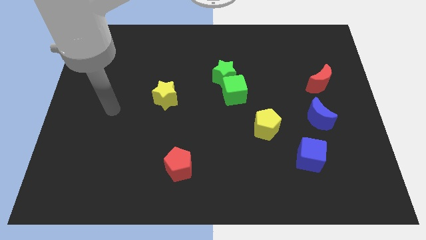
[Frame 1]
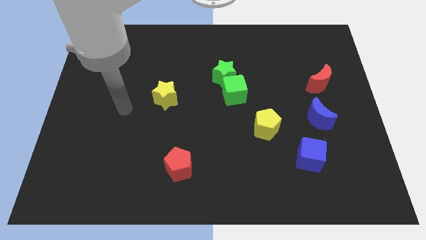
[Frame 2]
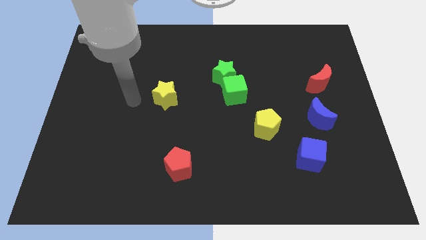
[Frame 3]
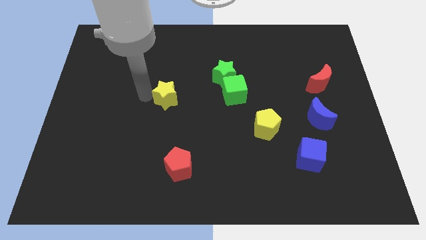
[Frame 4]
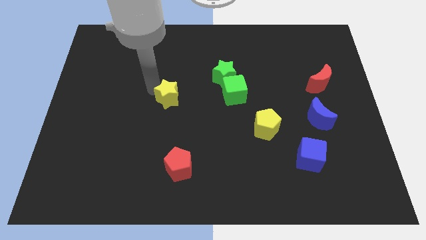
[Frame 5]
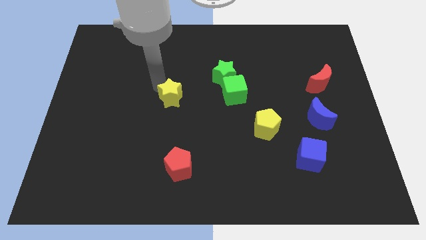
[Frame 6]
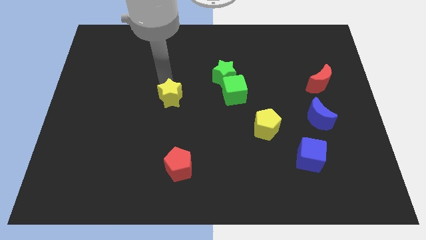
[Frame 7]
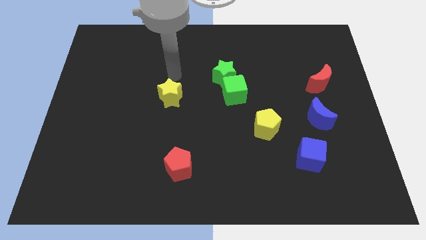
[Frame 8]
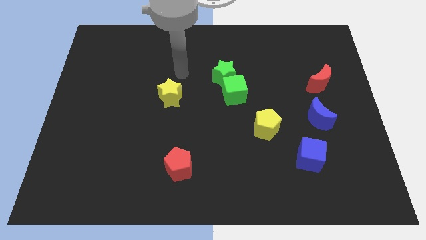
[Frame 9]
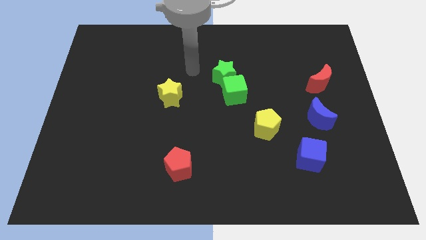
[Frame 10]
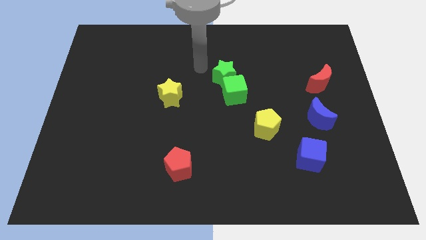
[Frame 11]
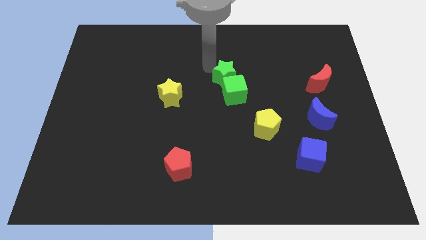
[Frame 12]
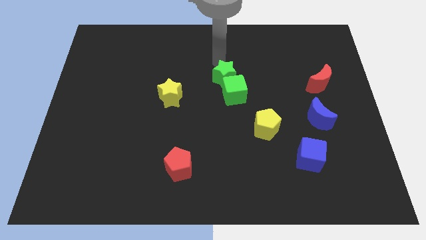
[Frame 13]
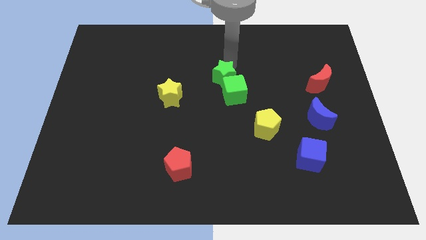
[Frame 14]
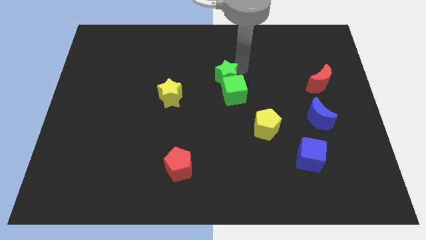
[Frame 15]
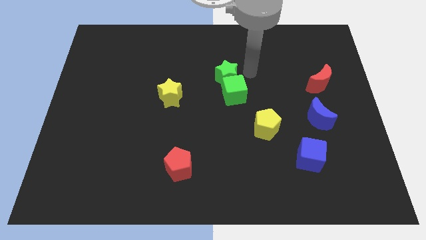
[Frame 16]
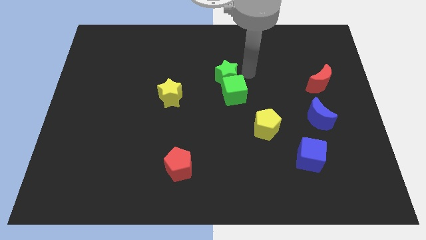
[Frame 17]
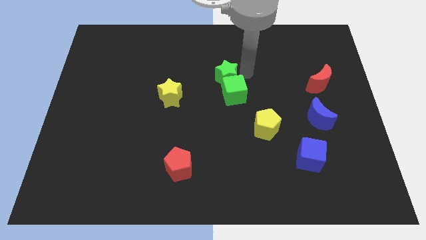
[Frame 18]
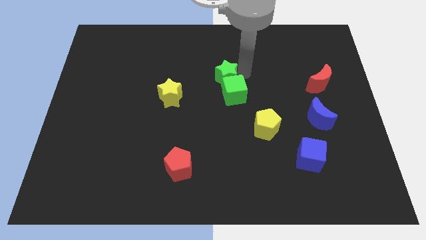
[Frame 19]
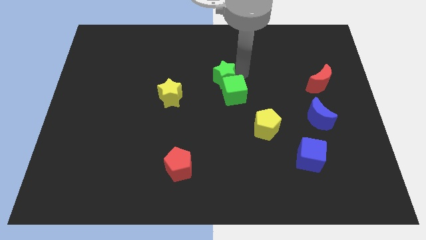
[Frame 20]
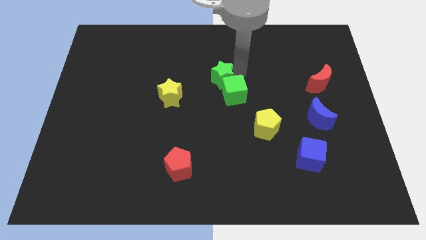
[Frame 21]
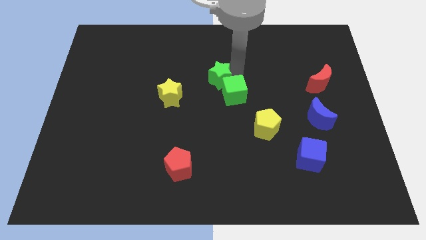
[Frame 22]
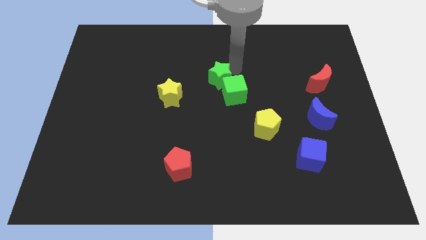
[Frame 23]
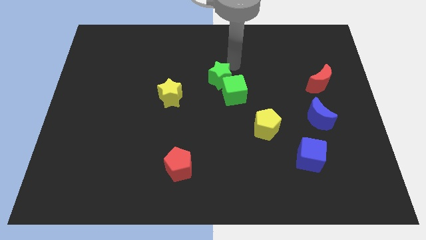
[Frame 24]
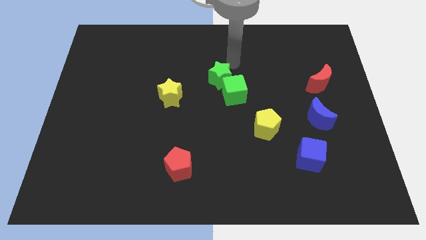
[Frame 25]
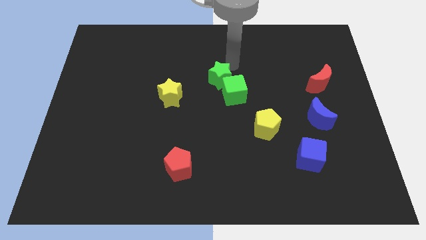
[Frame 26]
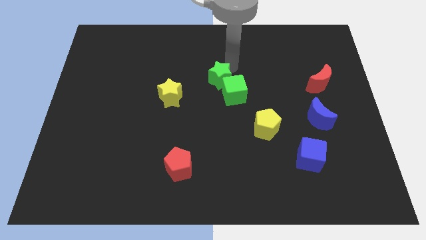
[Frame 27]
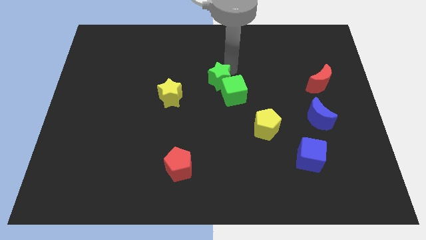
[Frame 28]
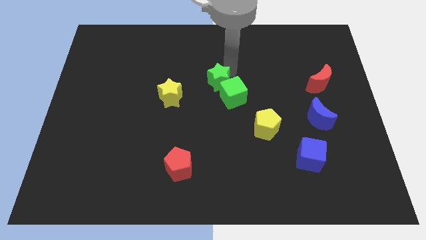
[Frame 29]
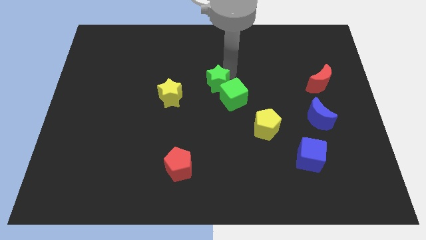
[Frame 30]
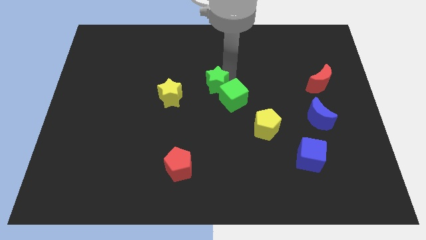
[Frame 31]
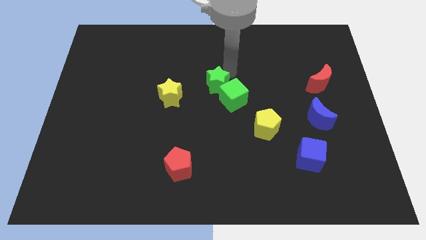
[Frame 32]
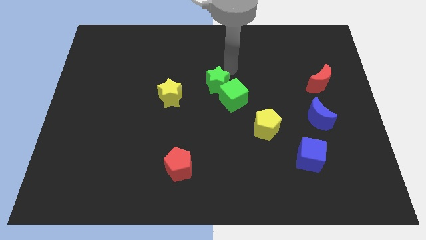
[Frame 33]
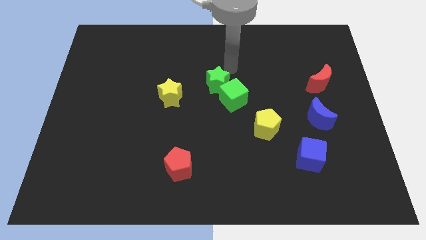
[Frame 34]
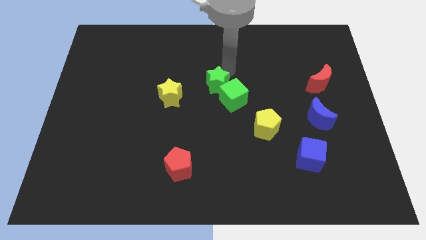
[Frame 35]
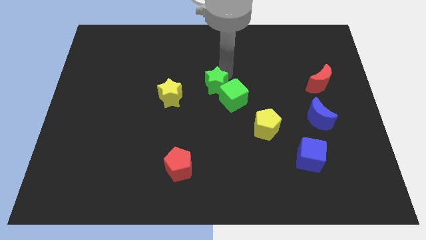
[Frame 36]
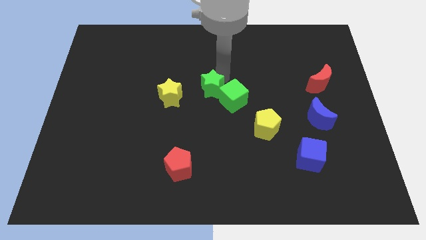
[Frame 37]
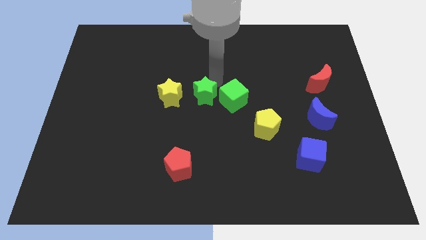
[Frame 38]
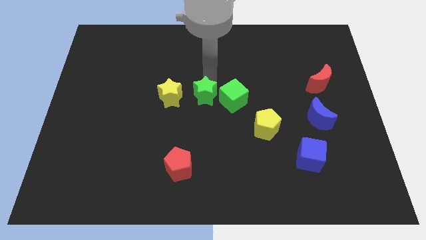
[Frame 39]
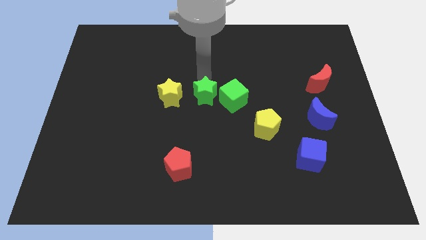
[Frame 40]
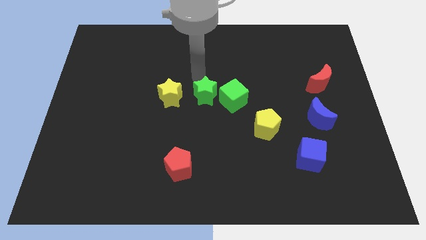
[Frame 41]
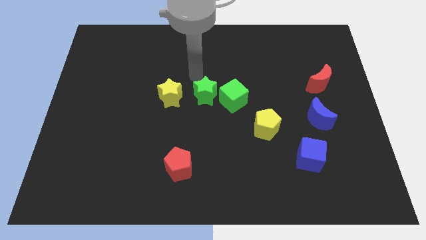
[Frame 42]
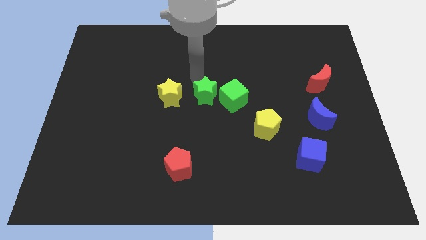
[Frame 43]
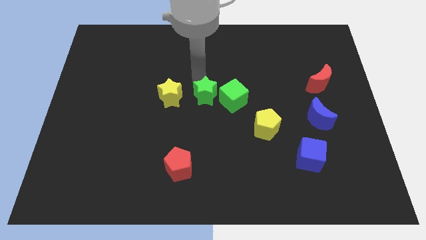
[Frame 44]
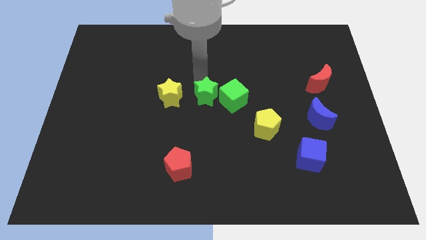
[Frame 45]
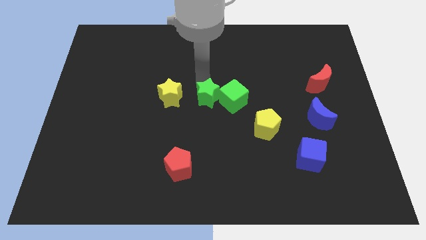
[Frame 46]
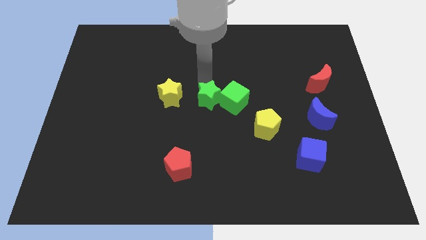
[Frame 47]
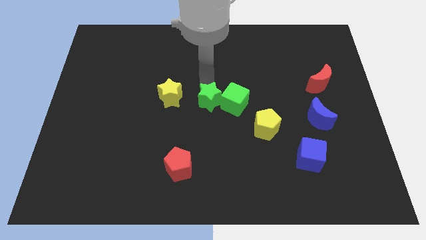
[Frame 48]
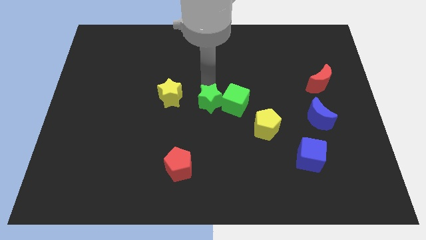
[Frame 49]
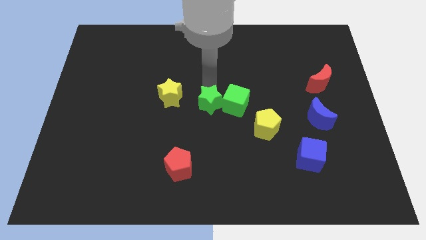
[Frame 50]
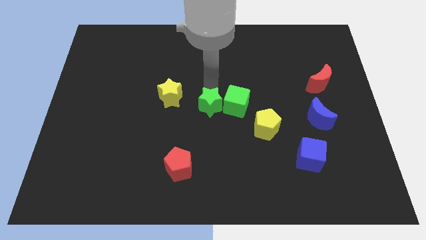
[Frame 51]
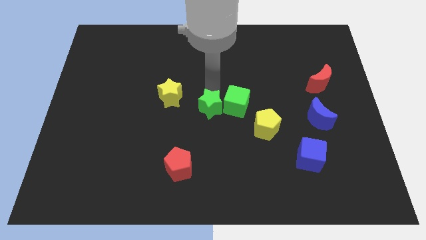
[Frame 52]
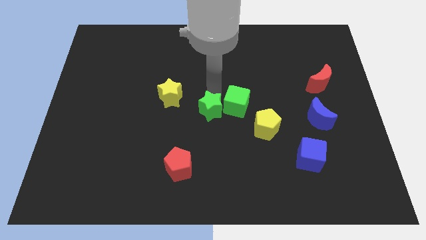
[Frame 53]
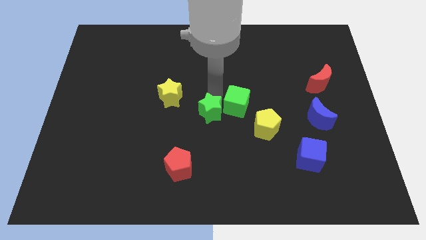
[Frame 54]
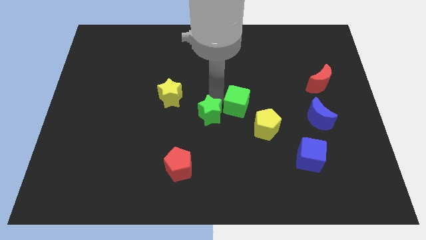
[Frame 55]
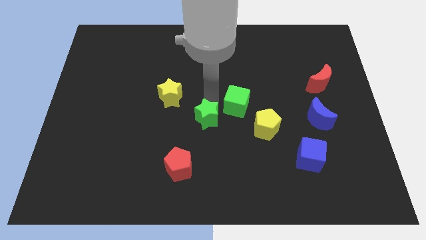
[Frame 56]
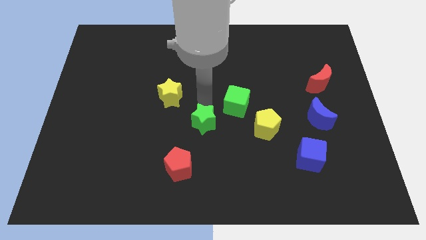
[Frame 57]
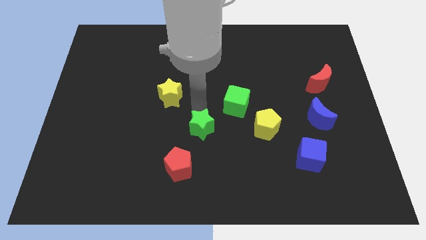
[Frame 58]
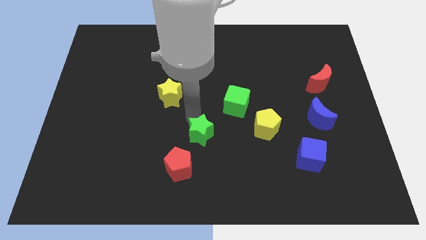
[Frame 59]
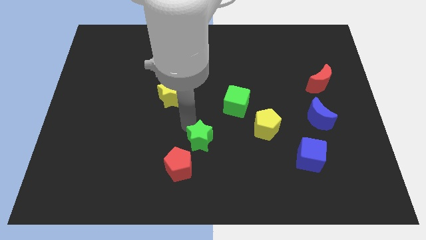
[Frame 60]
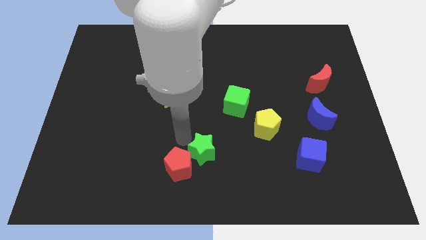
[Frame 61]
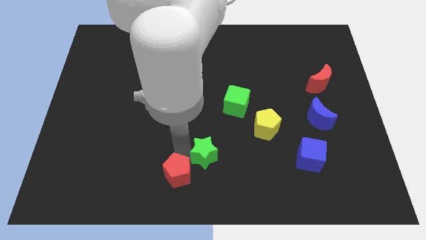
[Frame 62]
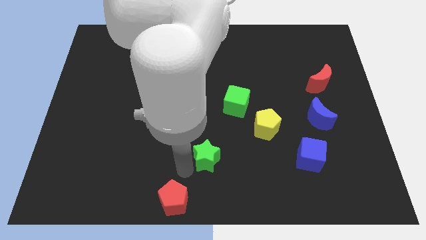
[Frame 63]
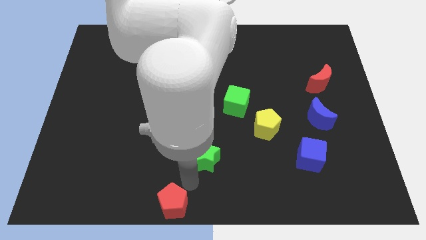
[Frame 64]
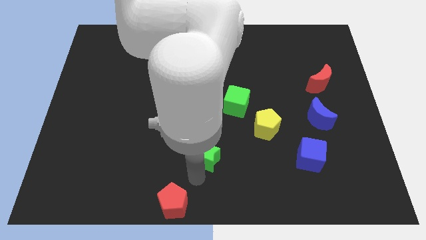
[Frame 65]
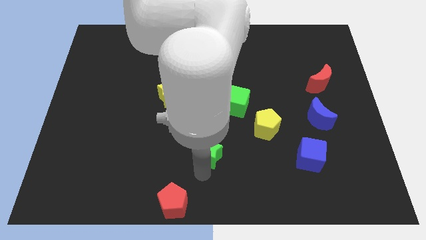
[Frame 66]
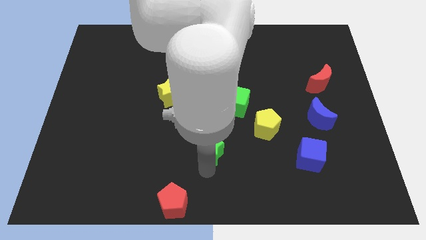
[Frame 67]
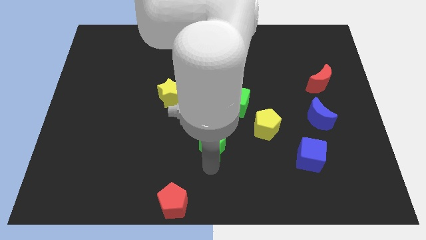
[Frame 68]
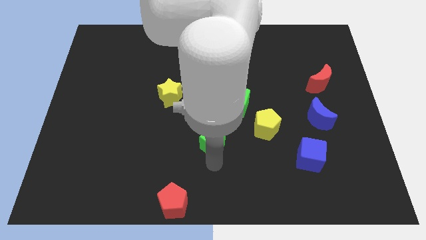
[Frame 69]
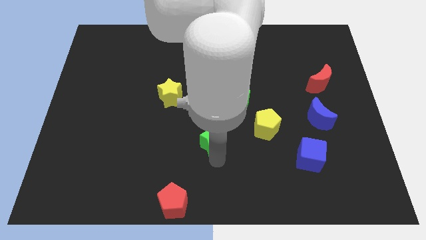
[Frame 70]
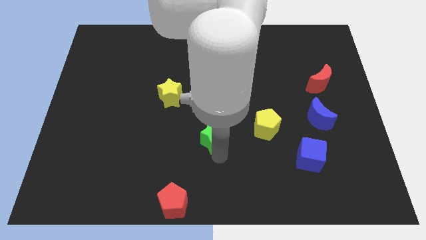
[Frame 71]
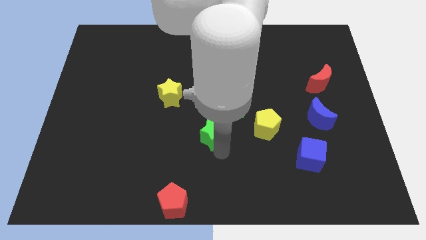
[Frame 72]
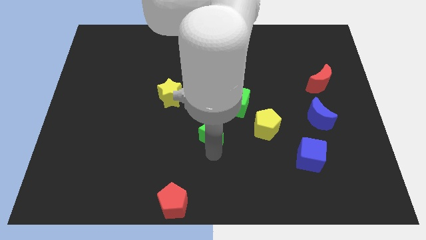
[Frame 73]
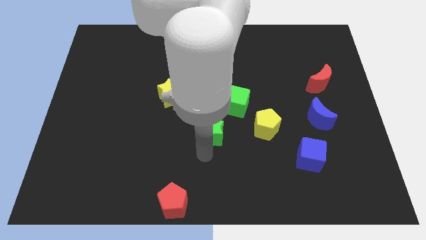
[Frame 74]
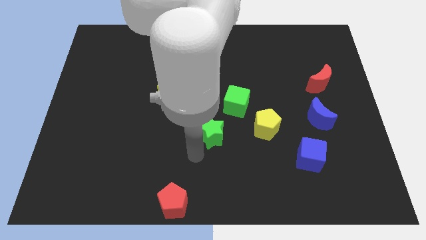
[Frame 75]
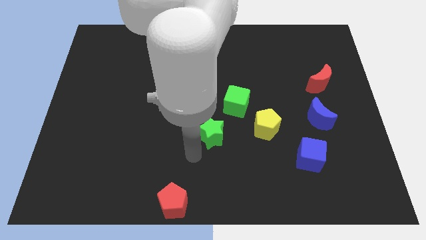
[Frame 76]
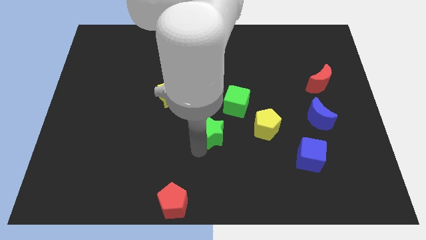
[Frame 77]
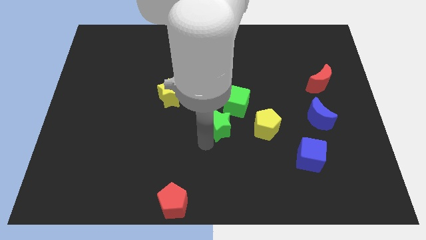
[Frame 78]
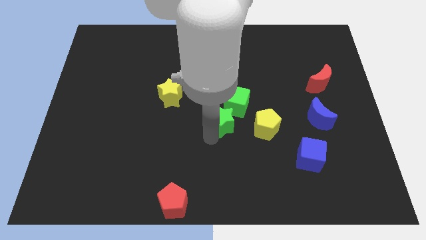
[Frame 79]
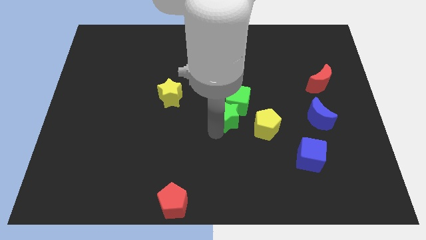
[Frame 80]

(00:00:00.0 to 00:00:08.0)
put the green star diagonally up and to the left of the yellow pentagon
